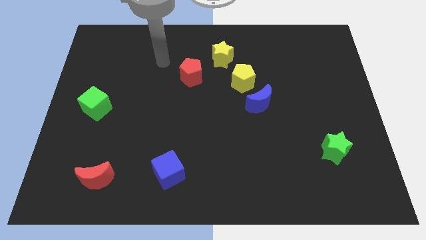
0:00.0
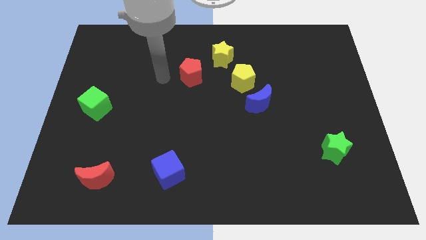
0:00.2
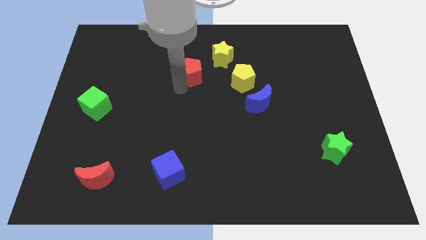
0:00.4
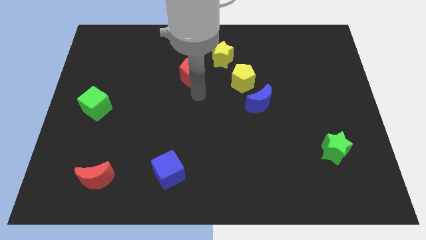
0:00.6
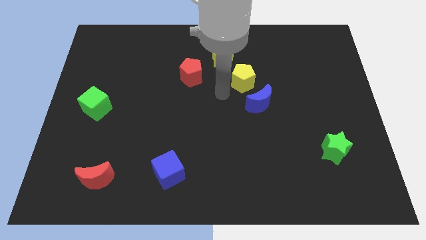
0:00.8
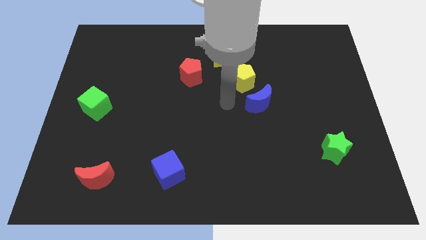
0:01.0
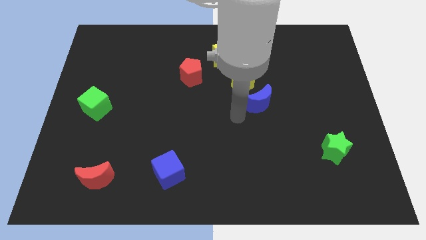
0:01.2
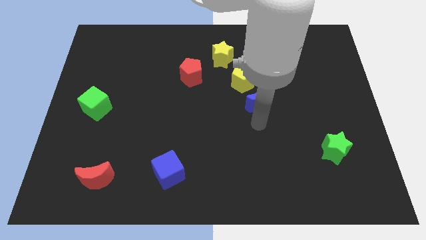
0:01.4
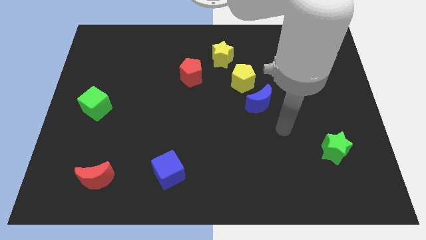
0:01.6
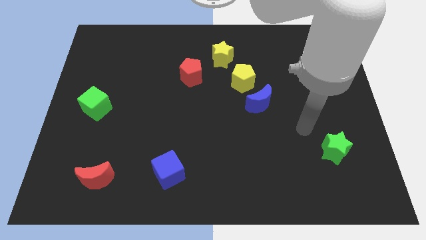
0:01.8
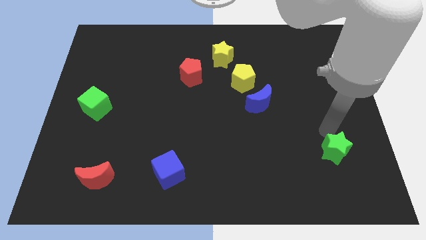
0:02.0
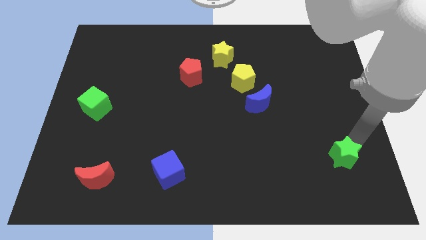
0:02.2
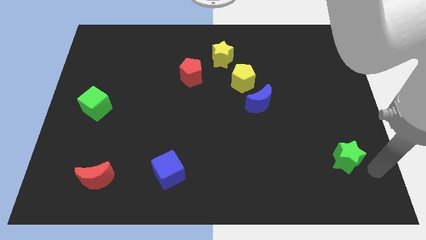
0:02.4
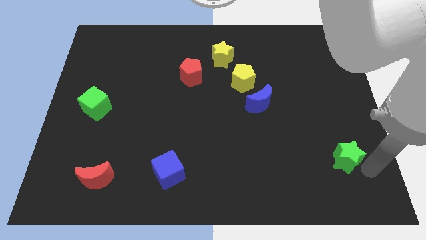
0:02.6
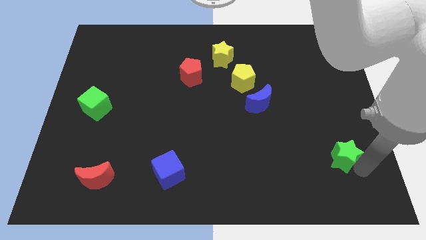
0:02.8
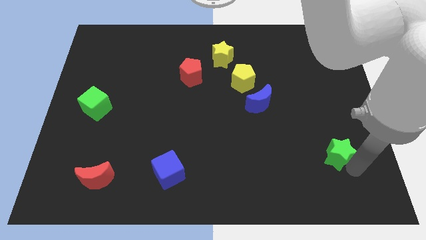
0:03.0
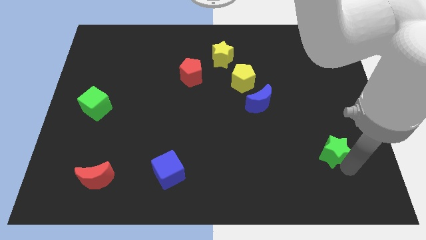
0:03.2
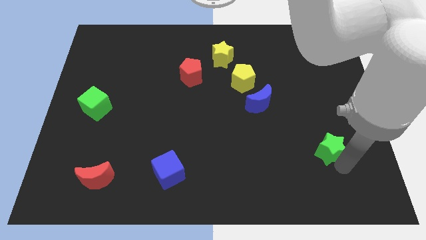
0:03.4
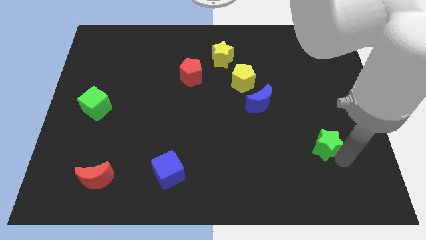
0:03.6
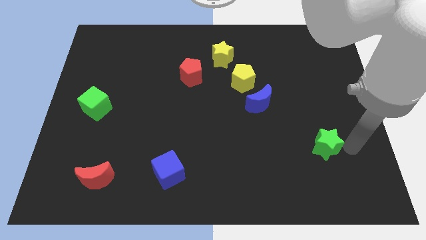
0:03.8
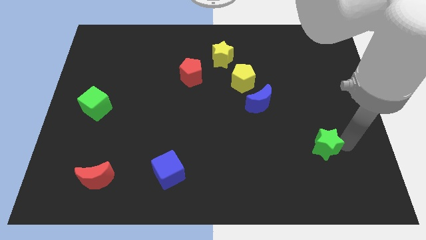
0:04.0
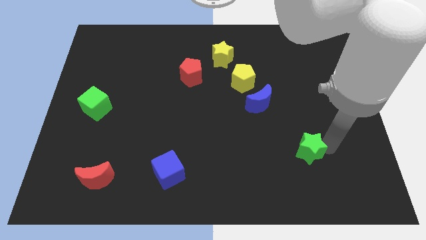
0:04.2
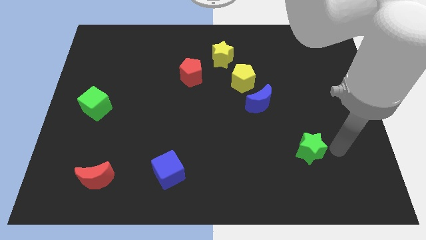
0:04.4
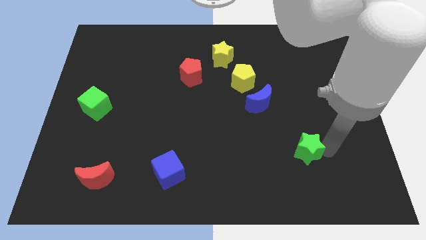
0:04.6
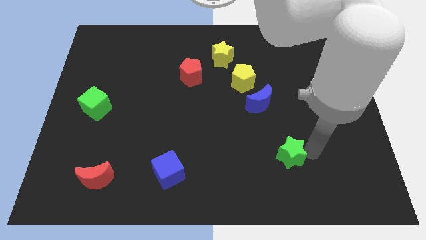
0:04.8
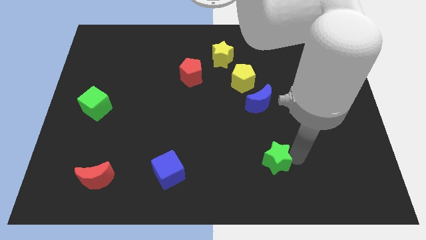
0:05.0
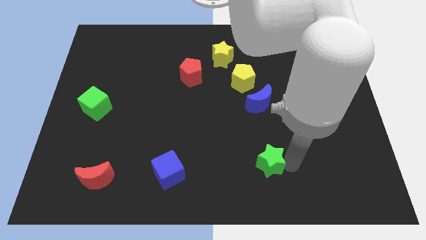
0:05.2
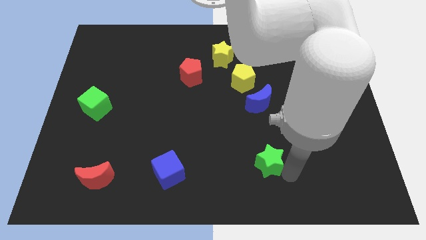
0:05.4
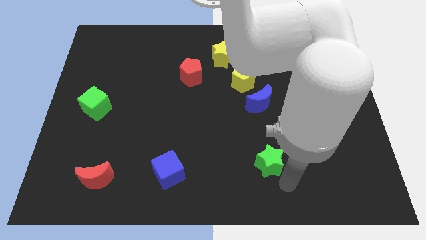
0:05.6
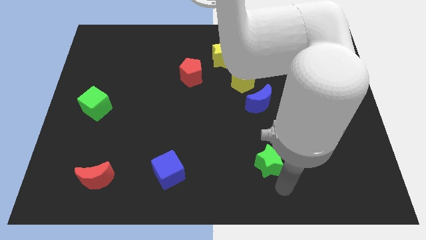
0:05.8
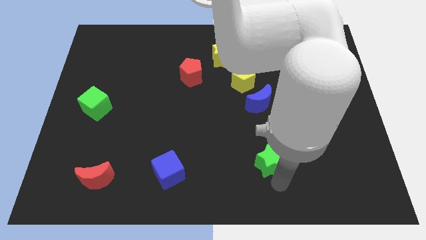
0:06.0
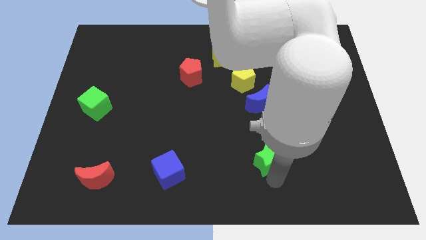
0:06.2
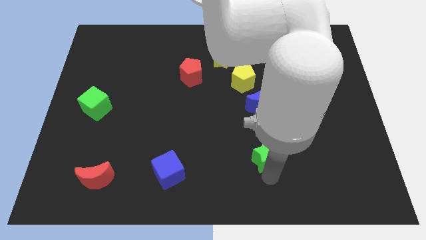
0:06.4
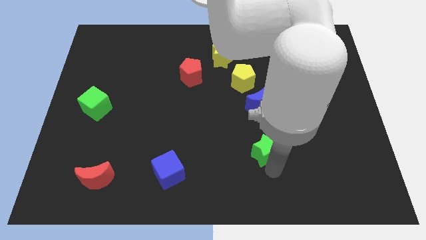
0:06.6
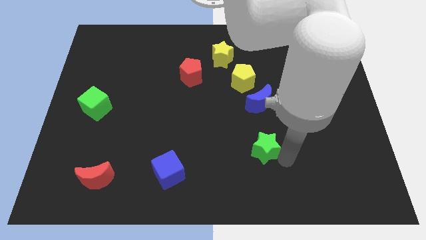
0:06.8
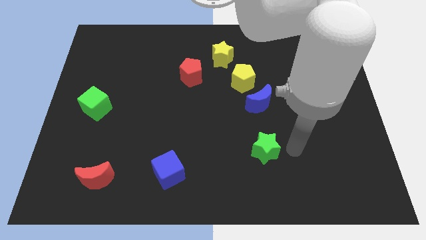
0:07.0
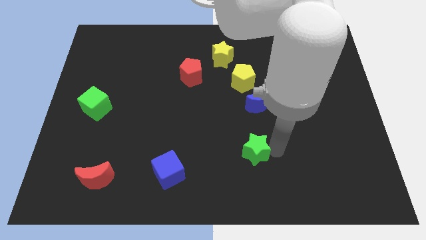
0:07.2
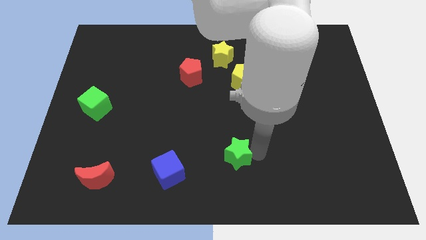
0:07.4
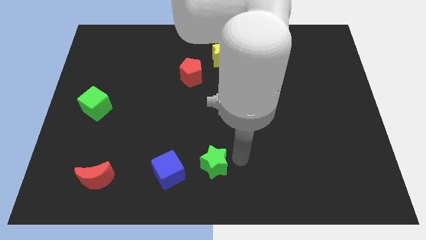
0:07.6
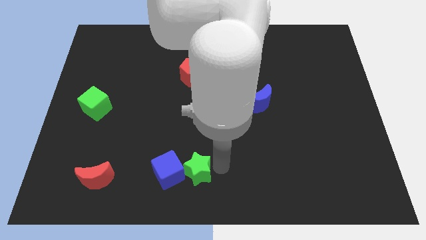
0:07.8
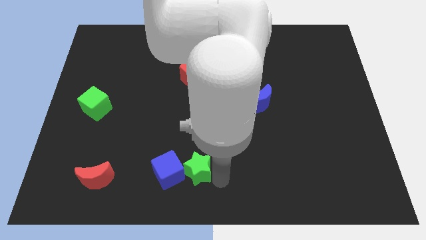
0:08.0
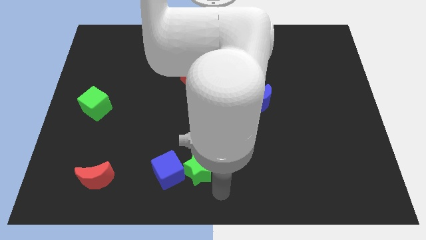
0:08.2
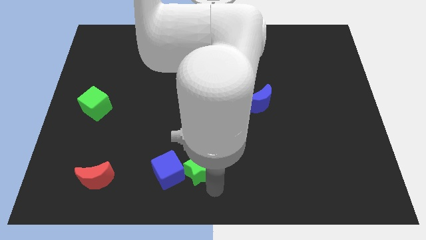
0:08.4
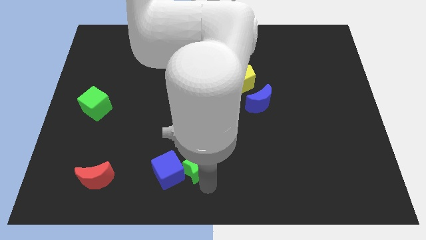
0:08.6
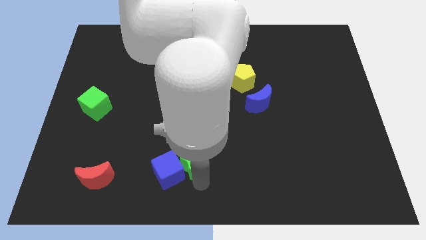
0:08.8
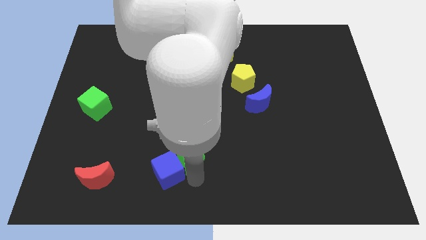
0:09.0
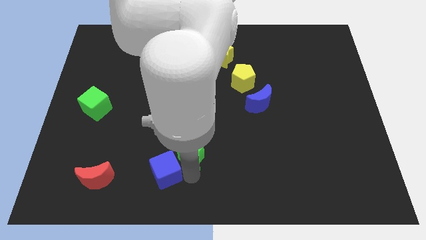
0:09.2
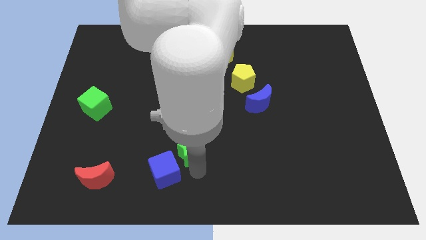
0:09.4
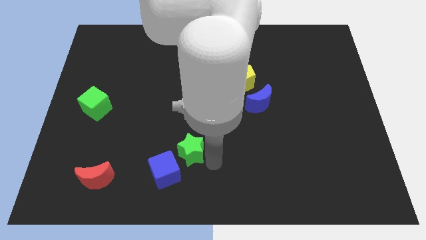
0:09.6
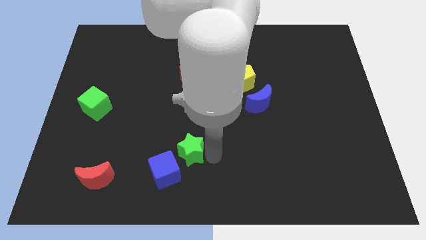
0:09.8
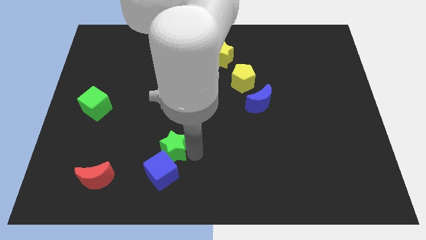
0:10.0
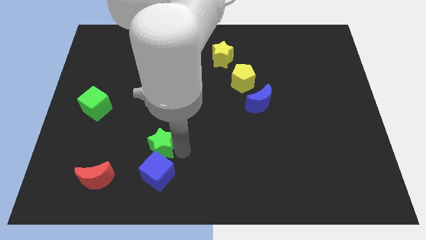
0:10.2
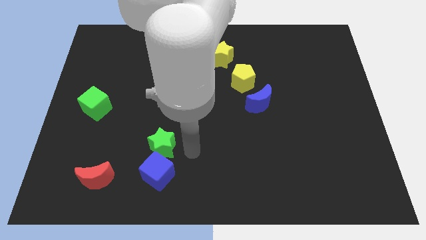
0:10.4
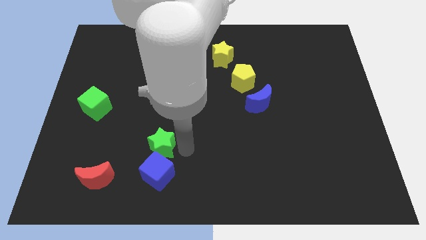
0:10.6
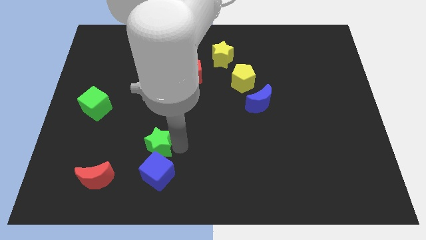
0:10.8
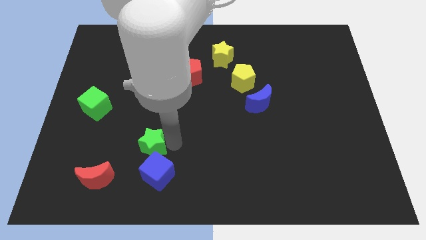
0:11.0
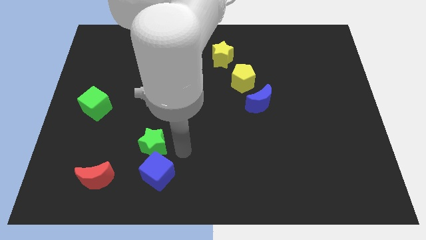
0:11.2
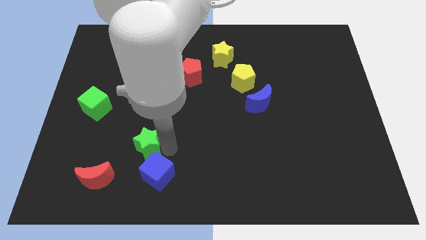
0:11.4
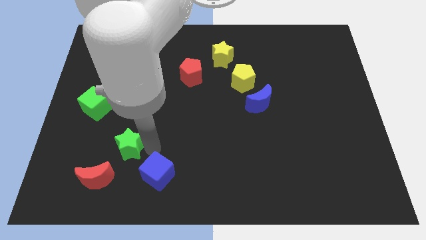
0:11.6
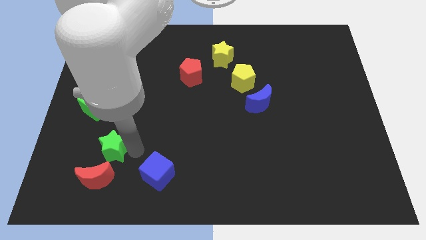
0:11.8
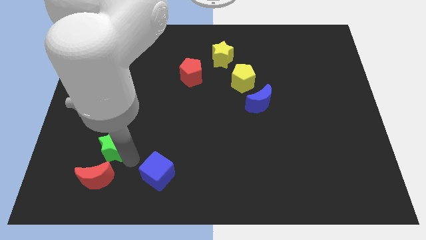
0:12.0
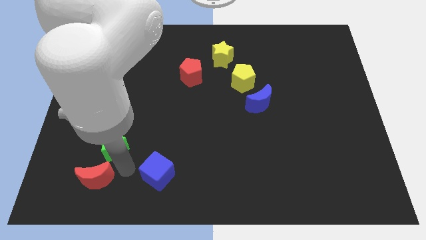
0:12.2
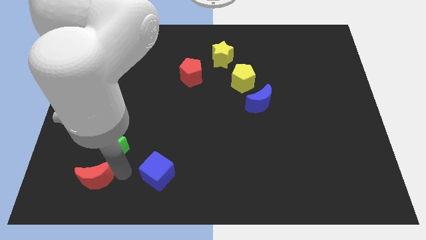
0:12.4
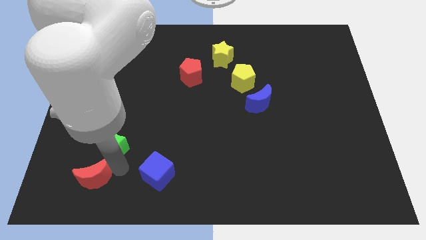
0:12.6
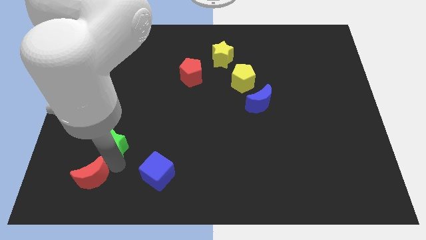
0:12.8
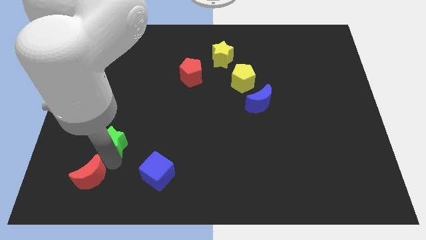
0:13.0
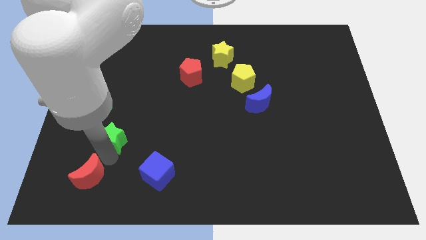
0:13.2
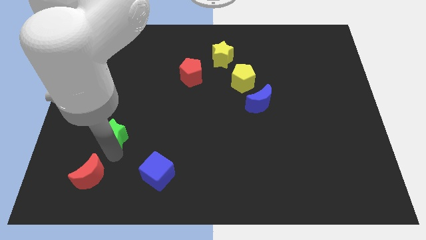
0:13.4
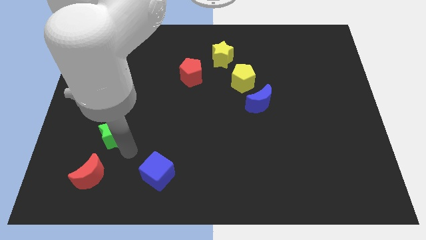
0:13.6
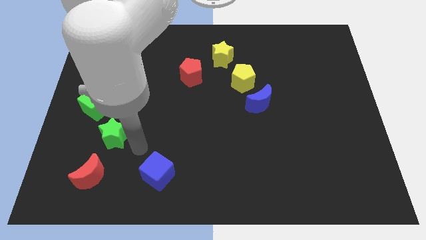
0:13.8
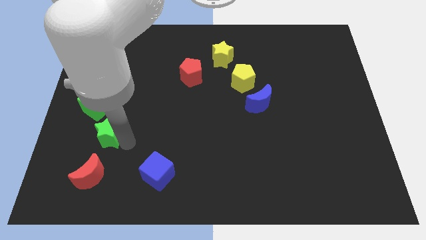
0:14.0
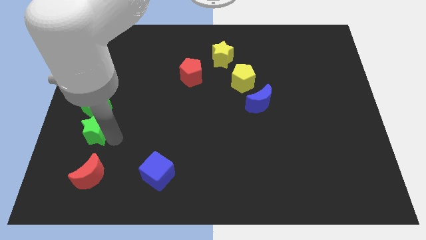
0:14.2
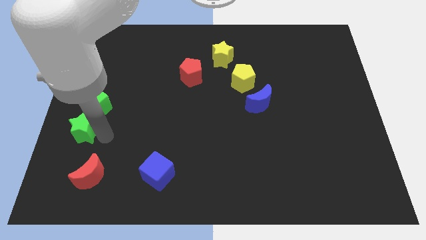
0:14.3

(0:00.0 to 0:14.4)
push the green star to the center left
